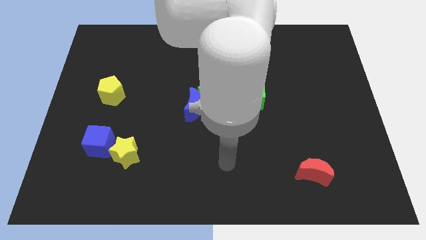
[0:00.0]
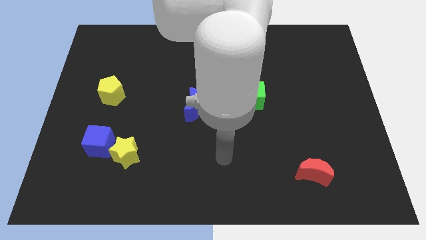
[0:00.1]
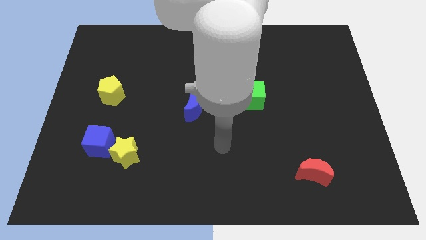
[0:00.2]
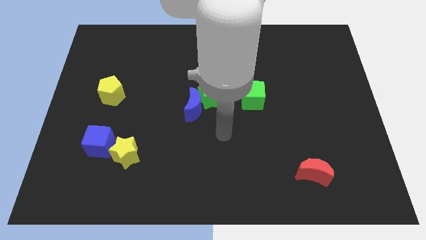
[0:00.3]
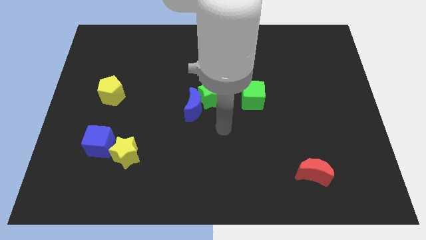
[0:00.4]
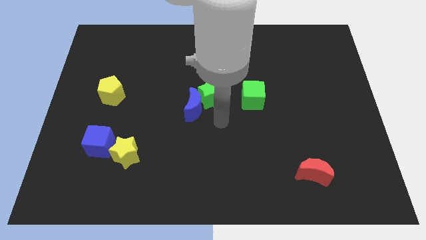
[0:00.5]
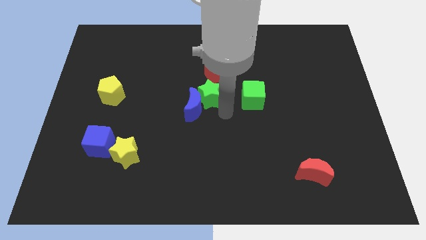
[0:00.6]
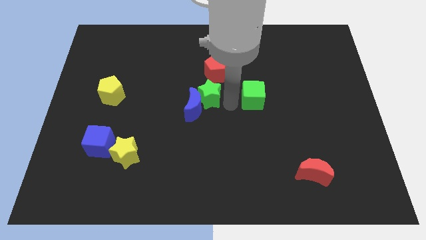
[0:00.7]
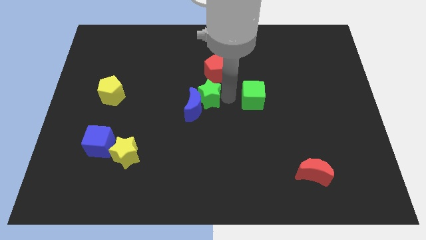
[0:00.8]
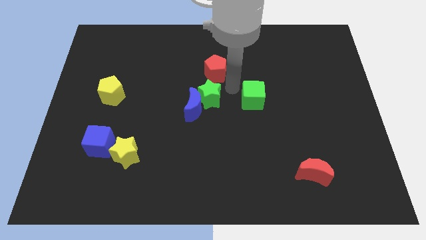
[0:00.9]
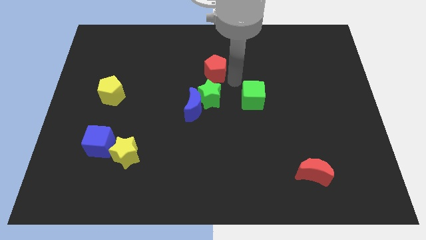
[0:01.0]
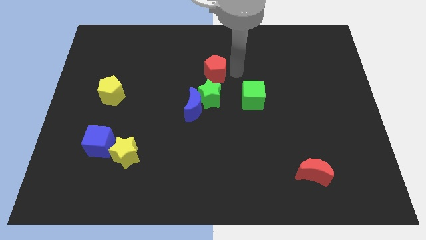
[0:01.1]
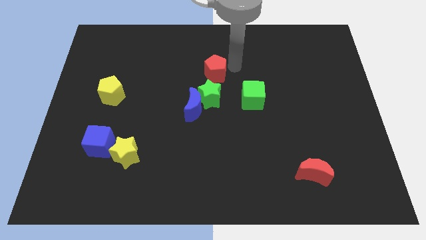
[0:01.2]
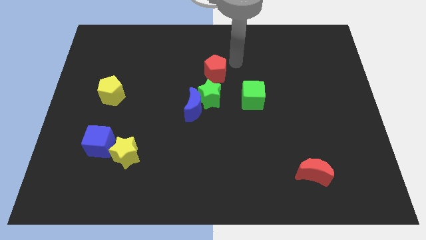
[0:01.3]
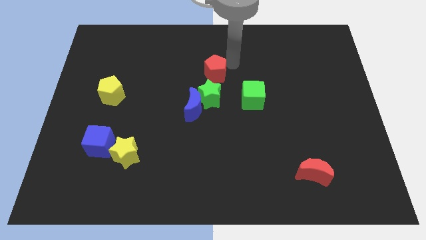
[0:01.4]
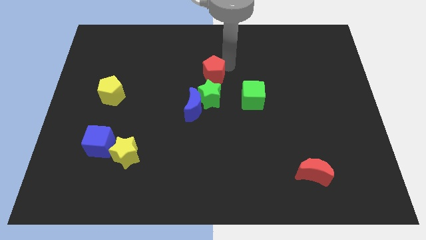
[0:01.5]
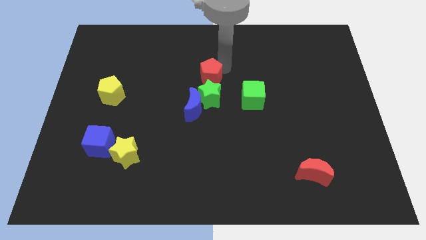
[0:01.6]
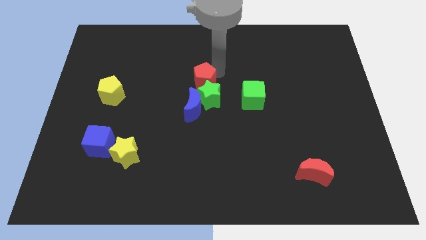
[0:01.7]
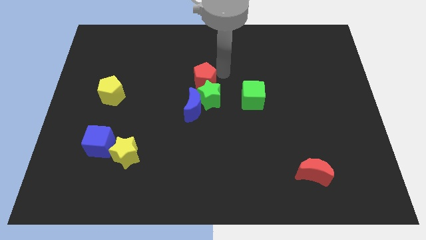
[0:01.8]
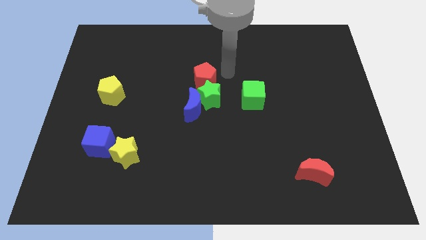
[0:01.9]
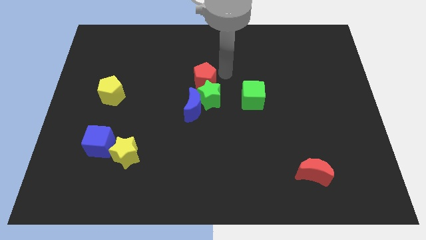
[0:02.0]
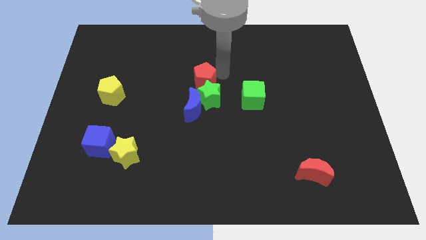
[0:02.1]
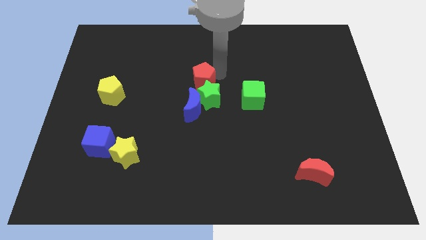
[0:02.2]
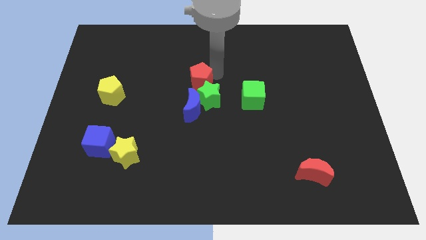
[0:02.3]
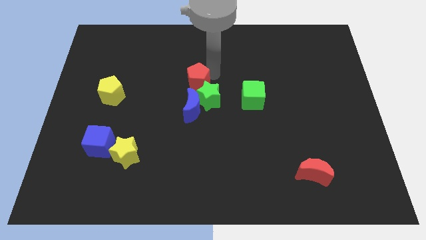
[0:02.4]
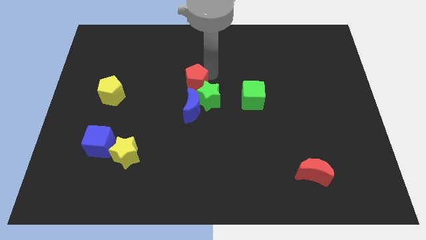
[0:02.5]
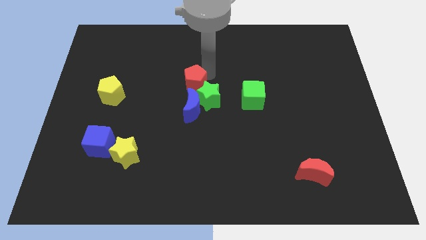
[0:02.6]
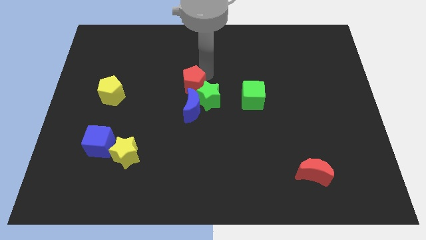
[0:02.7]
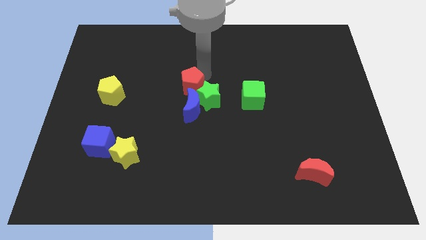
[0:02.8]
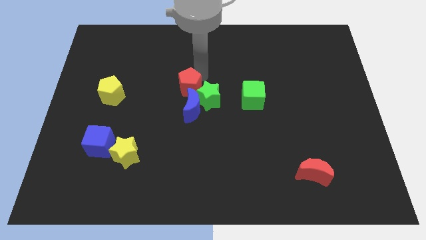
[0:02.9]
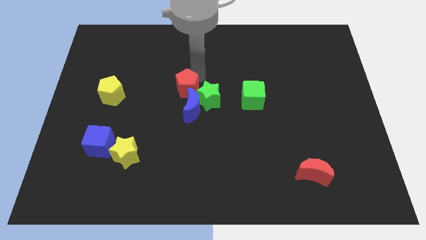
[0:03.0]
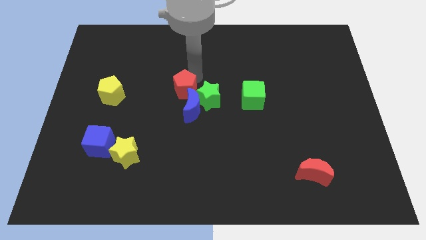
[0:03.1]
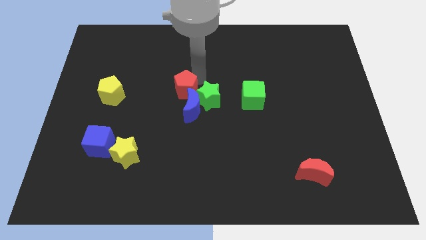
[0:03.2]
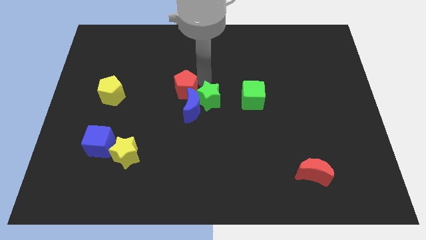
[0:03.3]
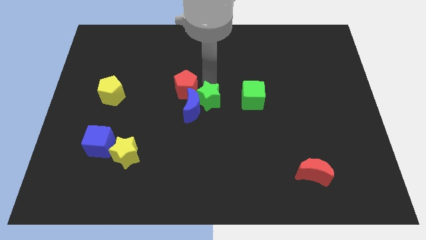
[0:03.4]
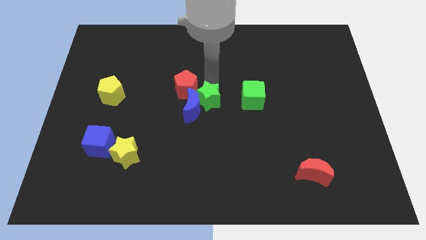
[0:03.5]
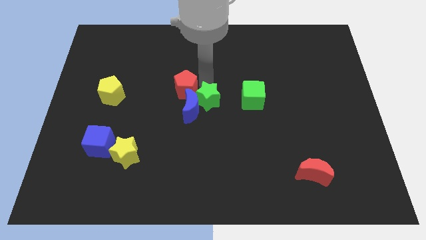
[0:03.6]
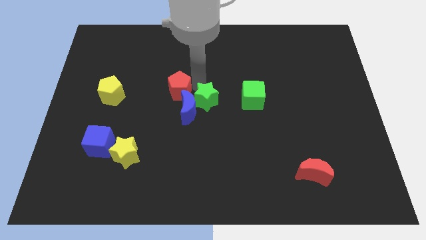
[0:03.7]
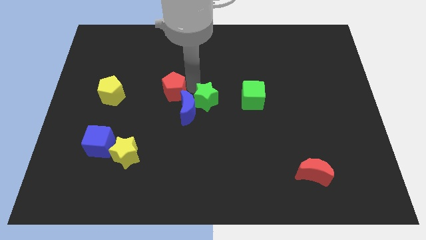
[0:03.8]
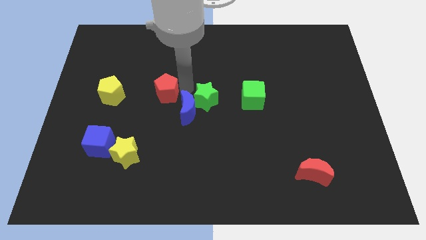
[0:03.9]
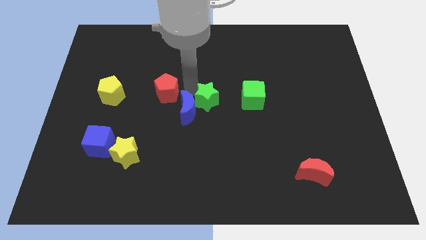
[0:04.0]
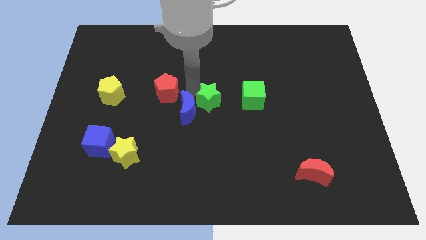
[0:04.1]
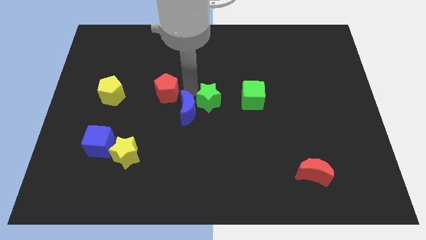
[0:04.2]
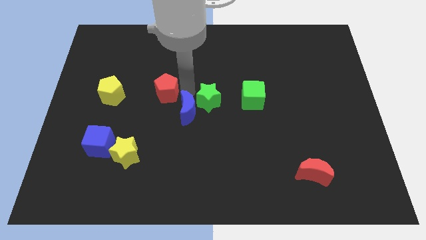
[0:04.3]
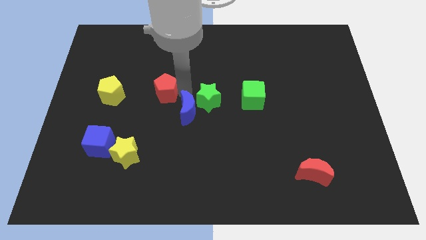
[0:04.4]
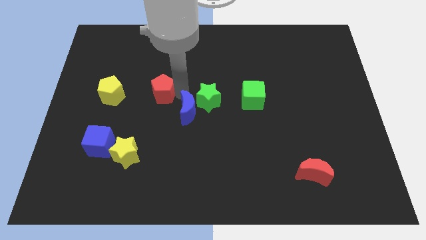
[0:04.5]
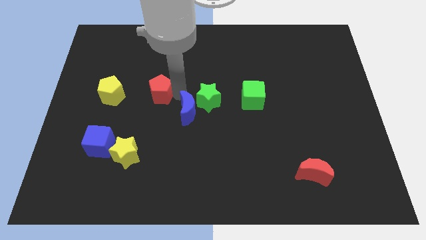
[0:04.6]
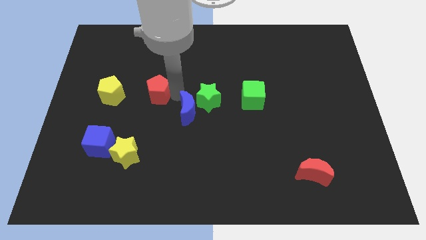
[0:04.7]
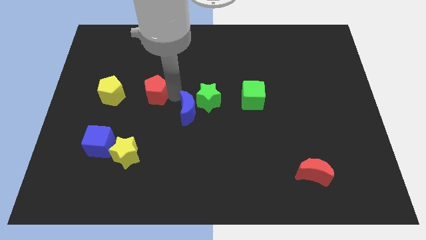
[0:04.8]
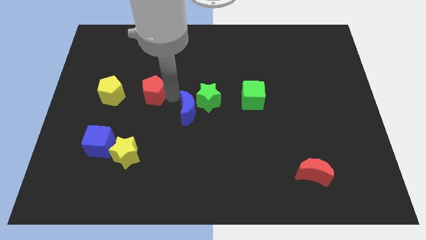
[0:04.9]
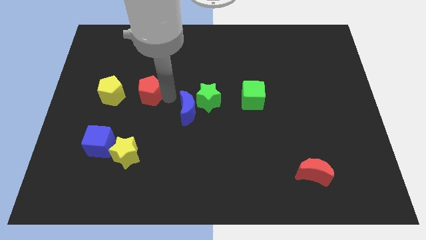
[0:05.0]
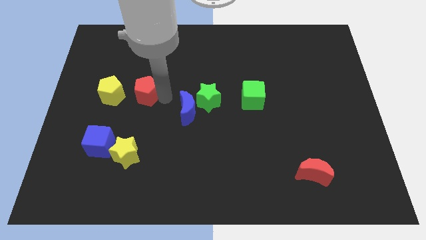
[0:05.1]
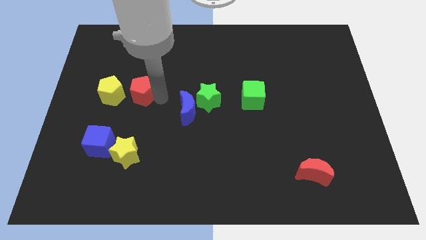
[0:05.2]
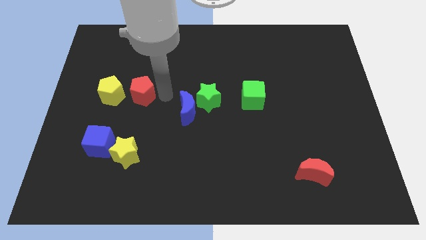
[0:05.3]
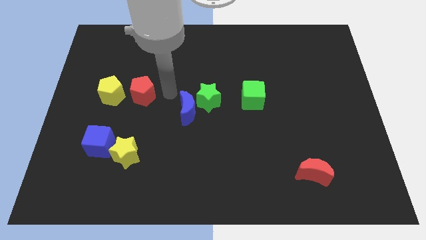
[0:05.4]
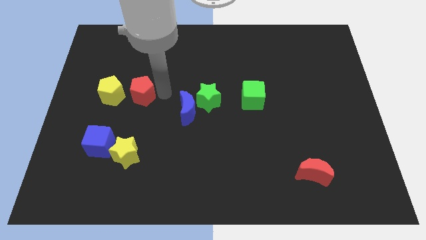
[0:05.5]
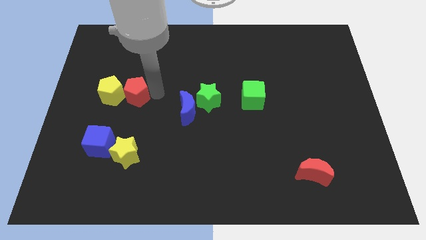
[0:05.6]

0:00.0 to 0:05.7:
slide the red pentagon next to the yellow pentagon

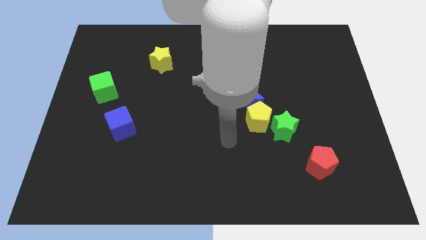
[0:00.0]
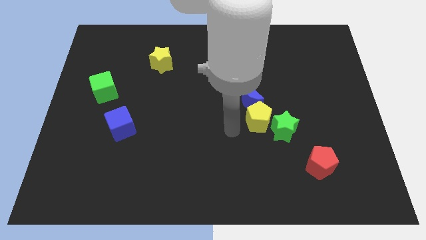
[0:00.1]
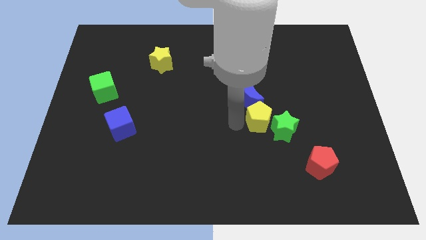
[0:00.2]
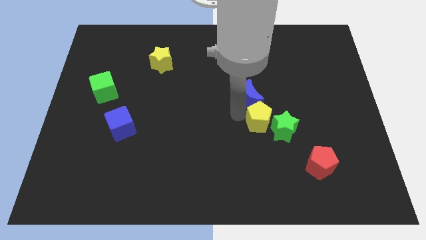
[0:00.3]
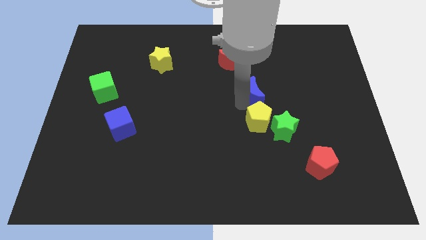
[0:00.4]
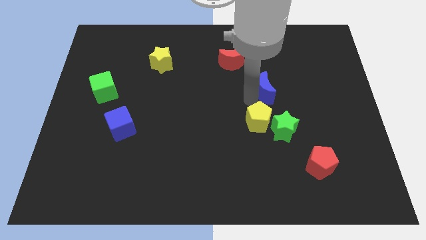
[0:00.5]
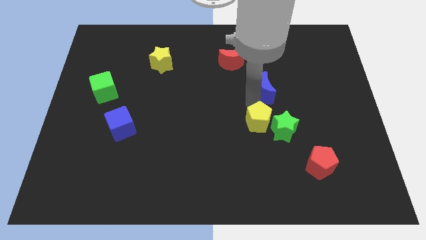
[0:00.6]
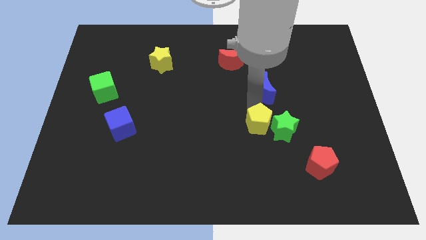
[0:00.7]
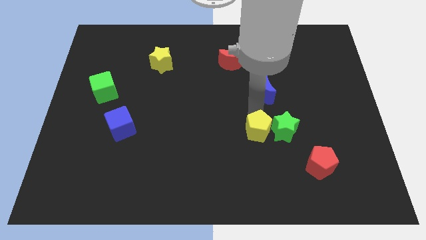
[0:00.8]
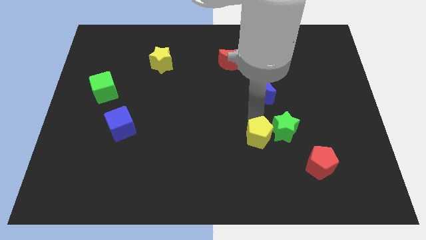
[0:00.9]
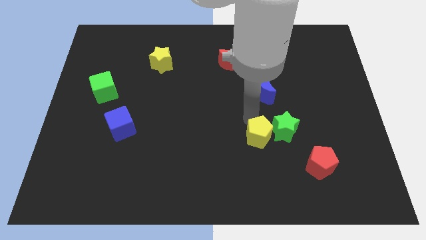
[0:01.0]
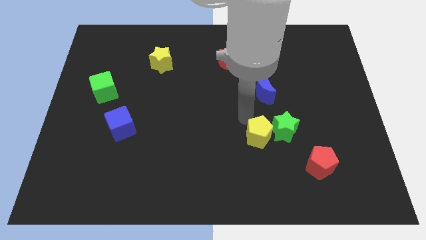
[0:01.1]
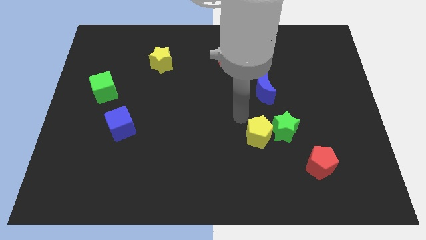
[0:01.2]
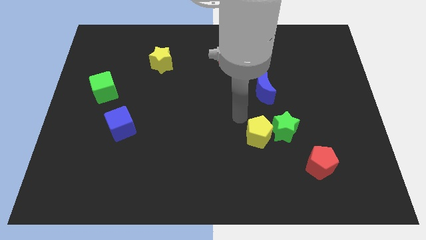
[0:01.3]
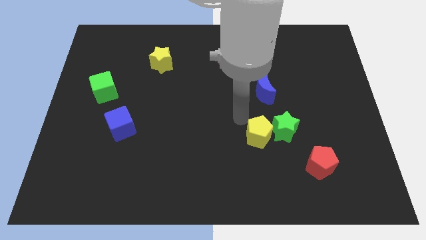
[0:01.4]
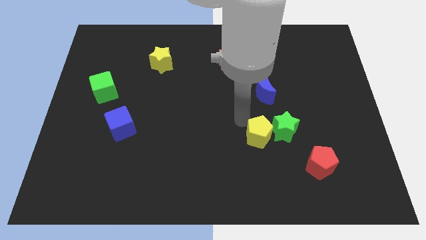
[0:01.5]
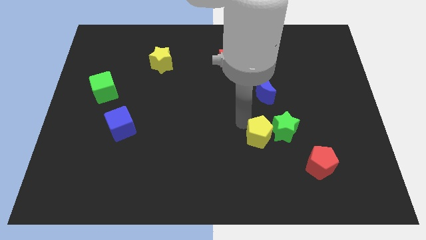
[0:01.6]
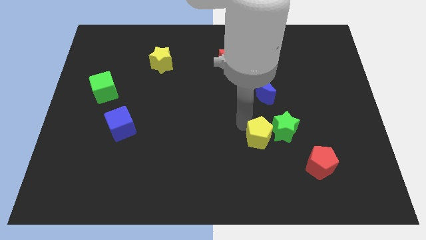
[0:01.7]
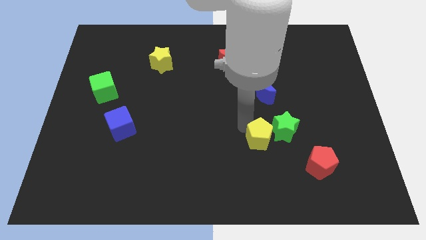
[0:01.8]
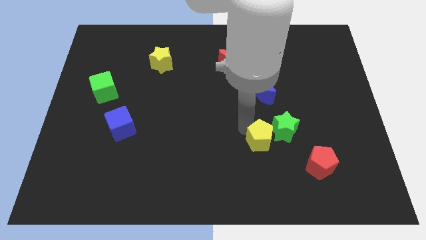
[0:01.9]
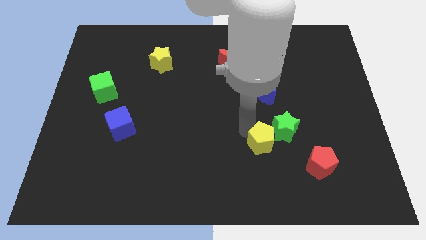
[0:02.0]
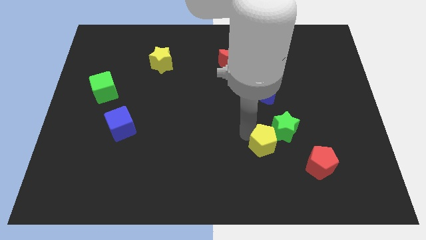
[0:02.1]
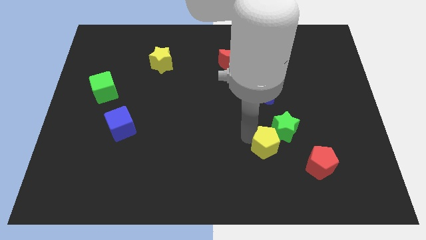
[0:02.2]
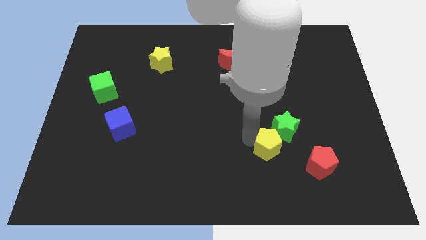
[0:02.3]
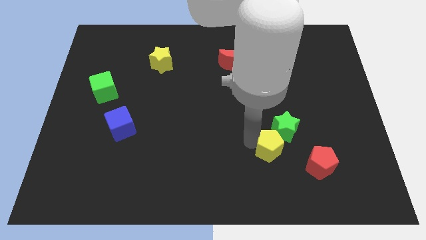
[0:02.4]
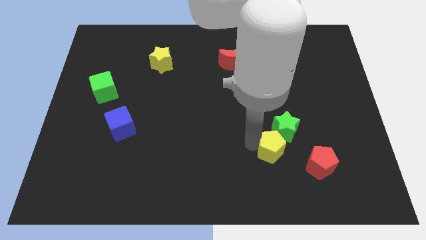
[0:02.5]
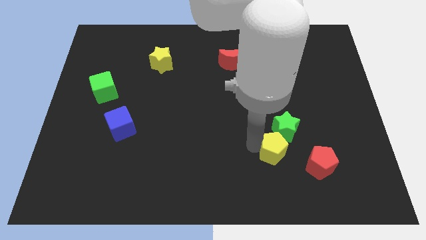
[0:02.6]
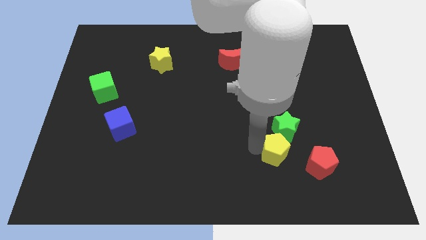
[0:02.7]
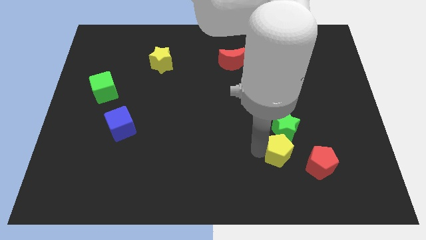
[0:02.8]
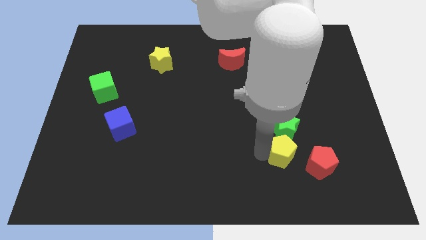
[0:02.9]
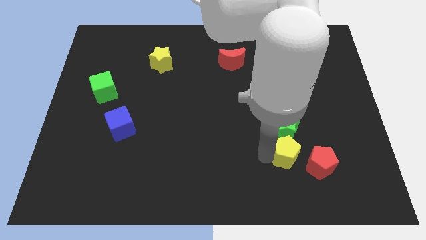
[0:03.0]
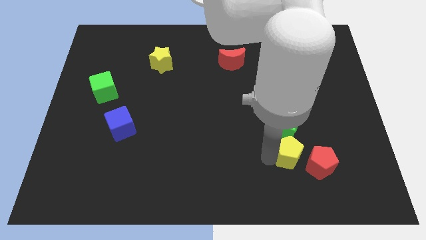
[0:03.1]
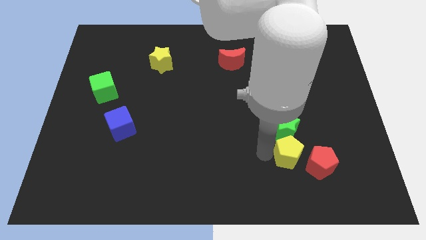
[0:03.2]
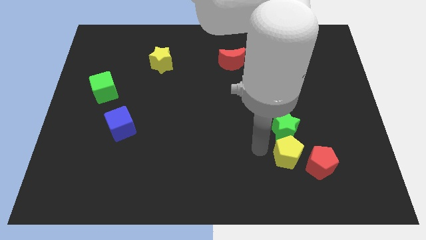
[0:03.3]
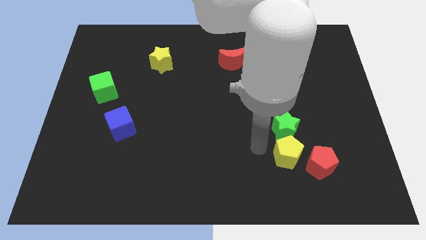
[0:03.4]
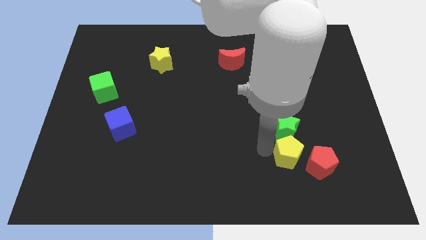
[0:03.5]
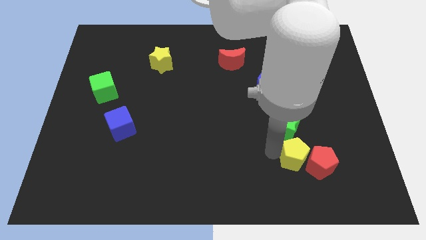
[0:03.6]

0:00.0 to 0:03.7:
put the yellow pentagon next to the red pentagon
